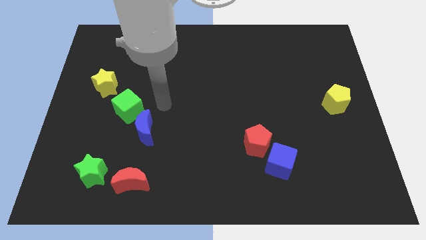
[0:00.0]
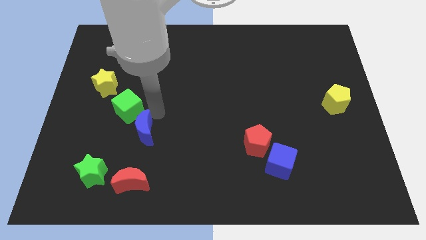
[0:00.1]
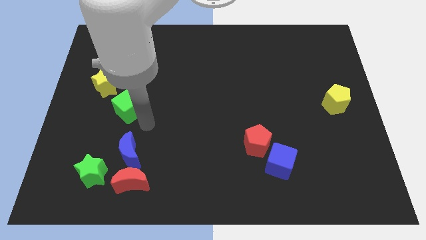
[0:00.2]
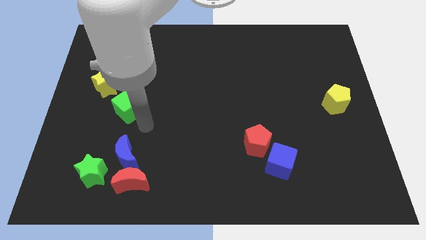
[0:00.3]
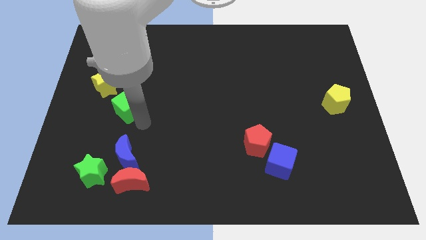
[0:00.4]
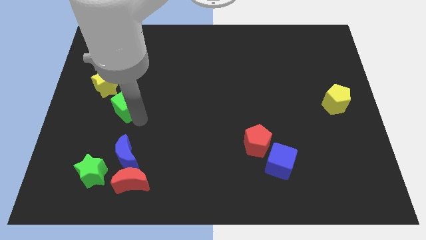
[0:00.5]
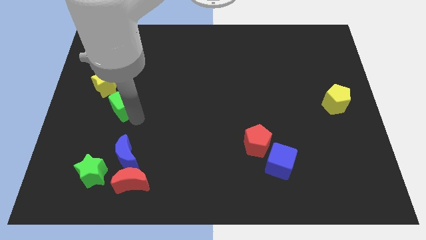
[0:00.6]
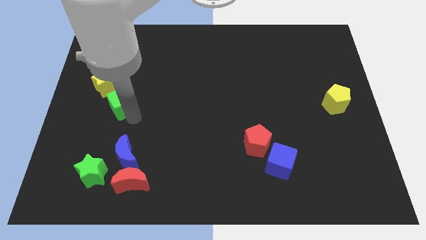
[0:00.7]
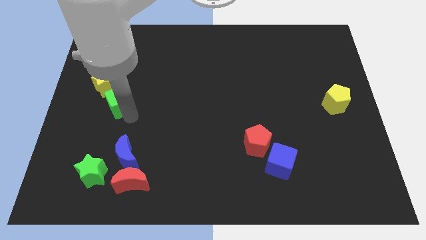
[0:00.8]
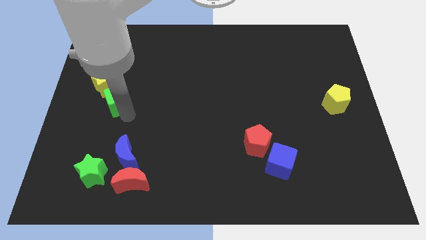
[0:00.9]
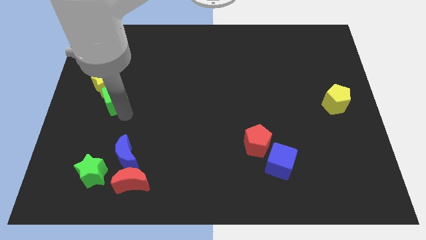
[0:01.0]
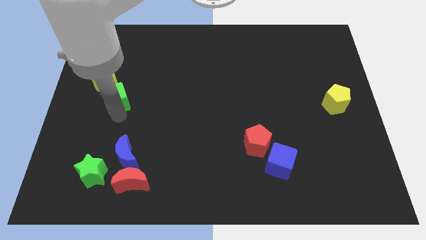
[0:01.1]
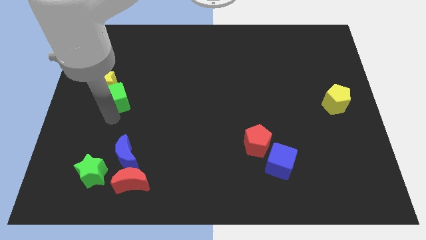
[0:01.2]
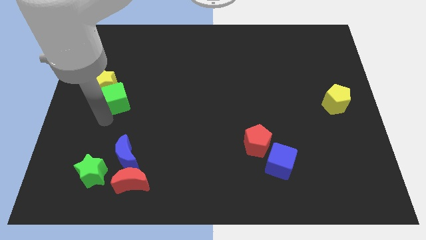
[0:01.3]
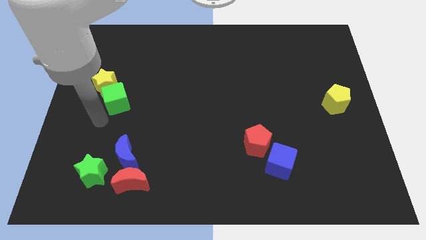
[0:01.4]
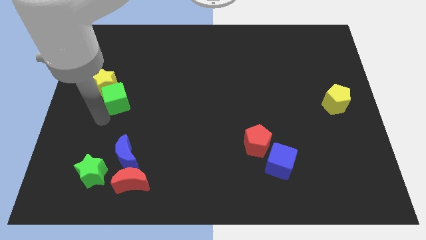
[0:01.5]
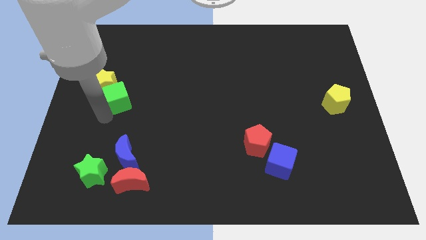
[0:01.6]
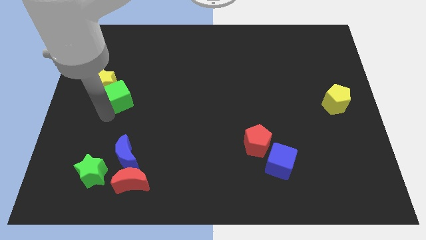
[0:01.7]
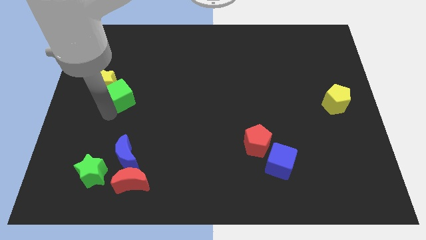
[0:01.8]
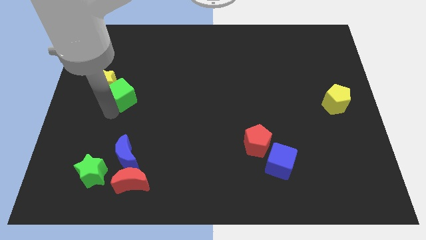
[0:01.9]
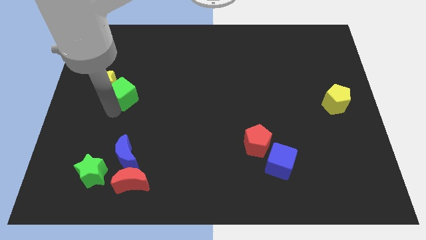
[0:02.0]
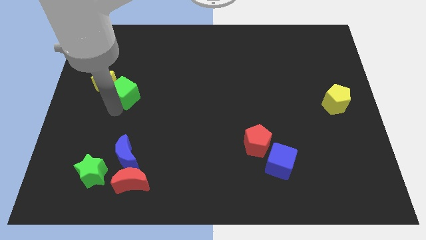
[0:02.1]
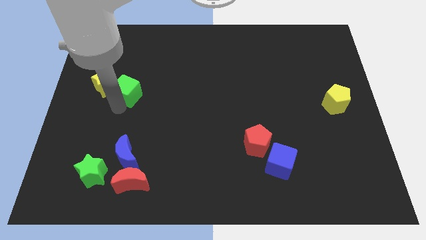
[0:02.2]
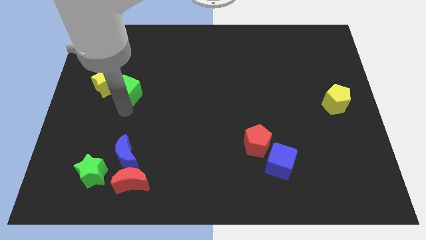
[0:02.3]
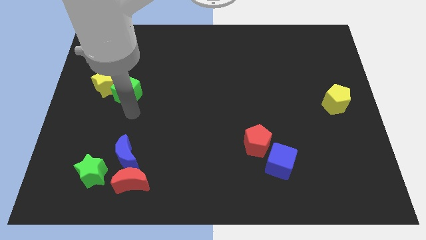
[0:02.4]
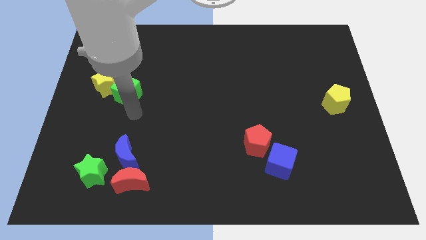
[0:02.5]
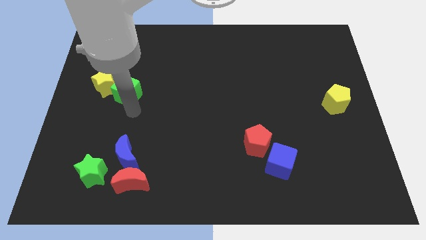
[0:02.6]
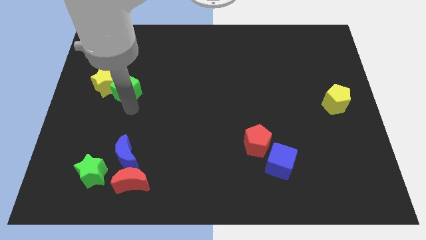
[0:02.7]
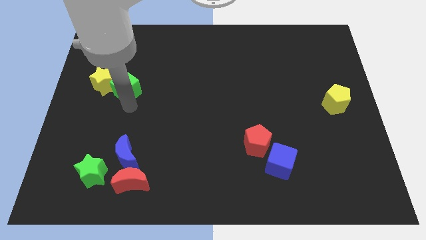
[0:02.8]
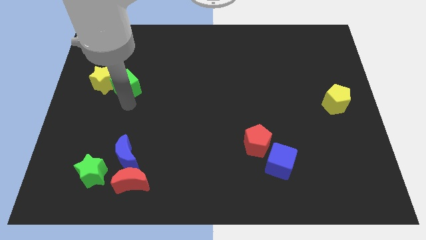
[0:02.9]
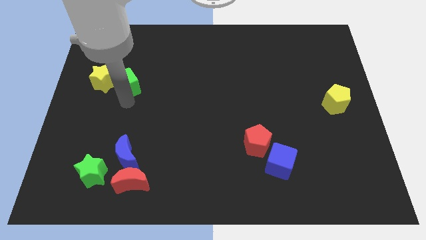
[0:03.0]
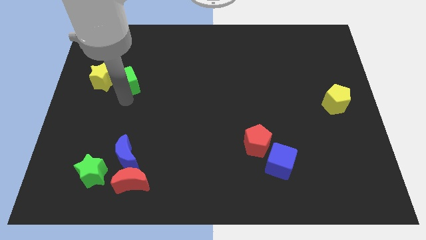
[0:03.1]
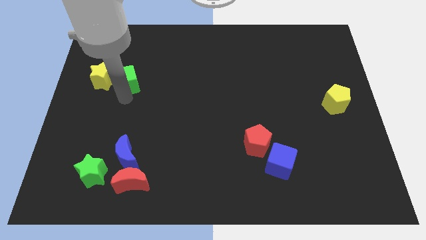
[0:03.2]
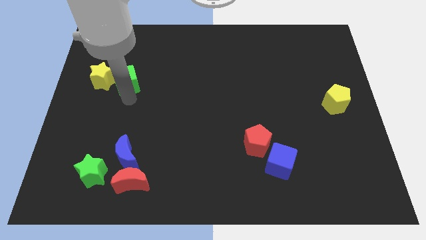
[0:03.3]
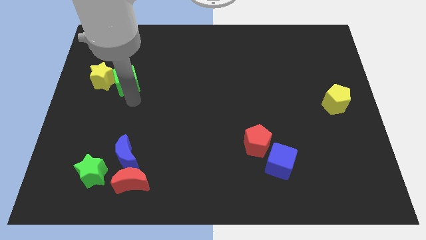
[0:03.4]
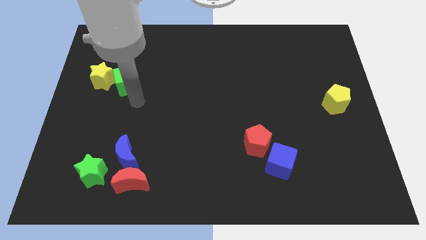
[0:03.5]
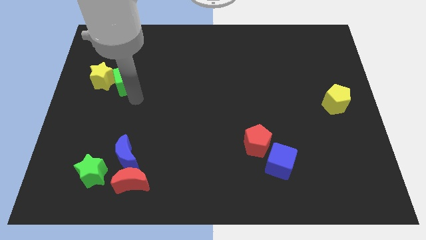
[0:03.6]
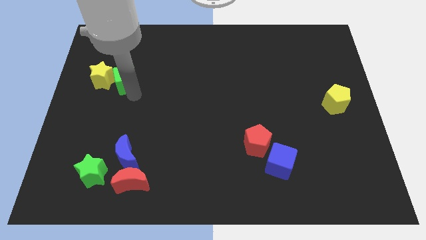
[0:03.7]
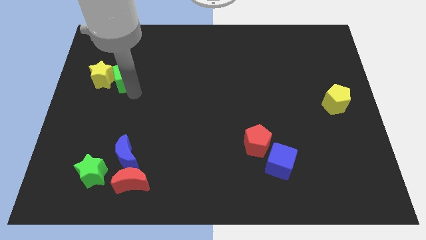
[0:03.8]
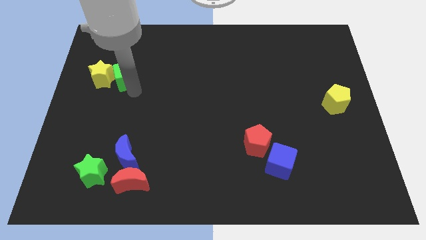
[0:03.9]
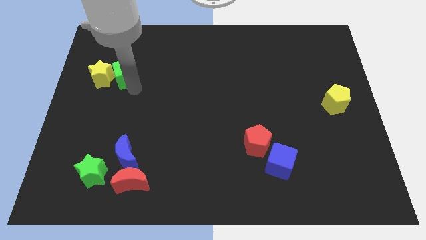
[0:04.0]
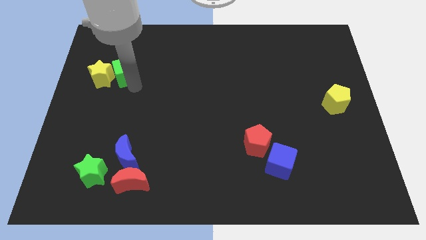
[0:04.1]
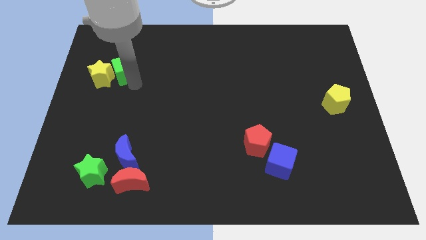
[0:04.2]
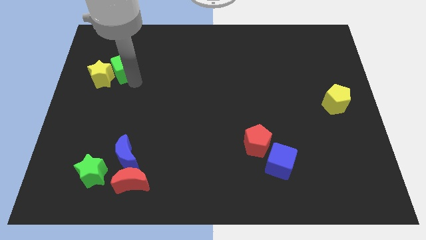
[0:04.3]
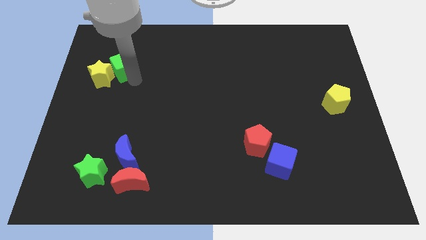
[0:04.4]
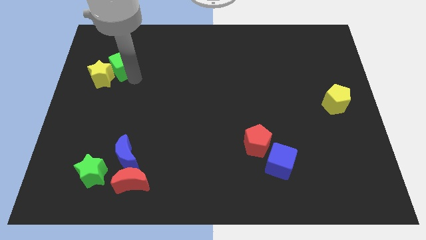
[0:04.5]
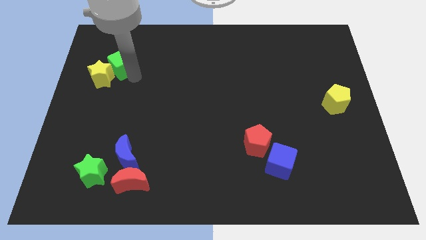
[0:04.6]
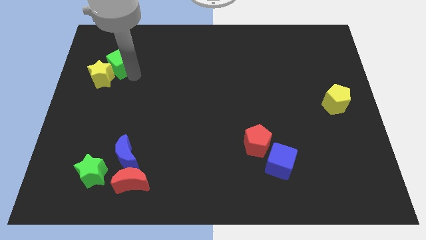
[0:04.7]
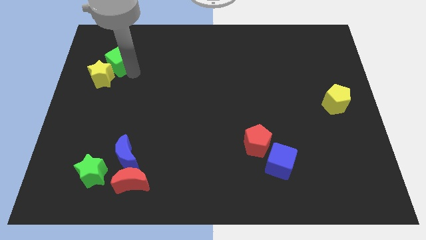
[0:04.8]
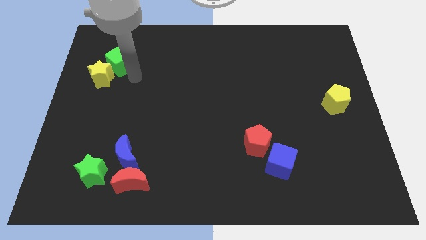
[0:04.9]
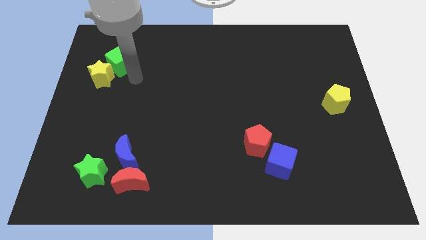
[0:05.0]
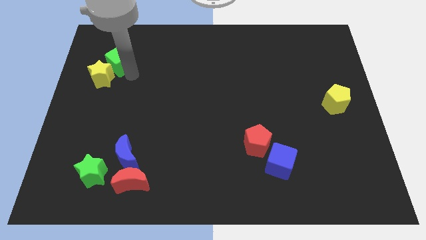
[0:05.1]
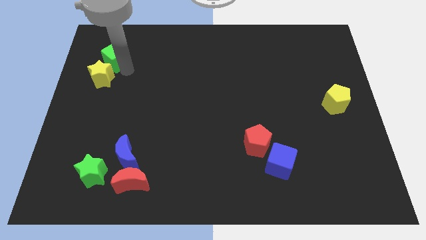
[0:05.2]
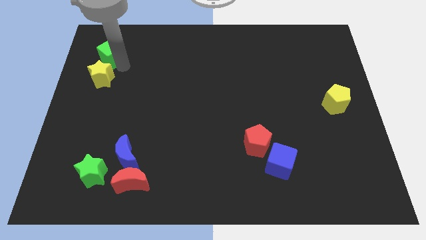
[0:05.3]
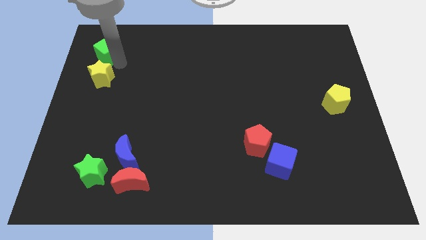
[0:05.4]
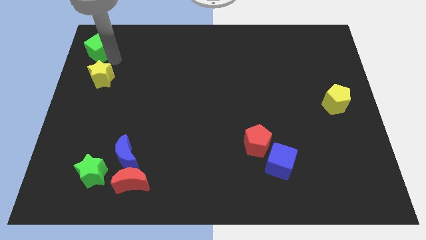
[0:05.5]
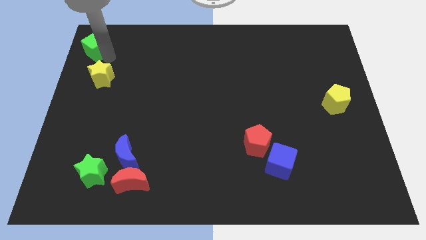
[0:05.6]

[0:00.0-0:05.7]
push the green cube to the top left corner

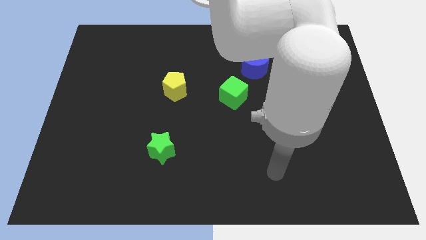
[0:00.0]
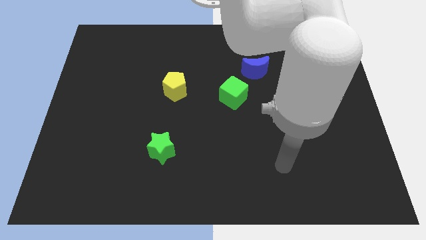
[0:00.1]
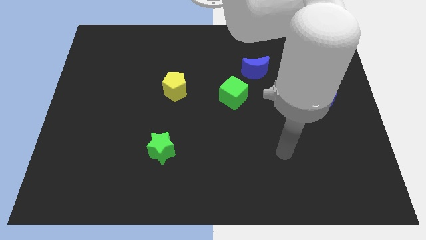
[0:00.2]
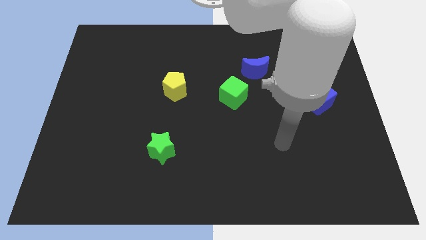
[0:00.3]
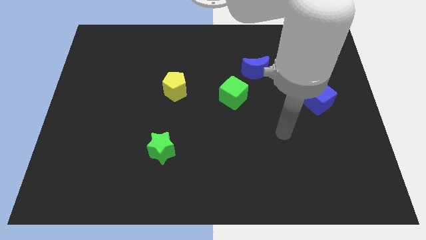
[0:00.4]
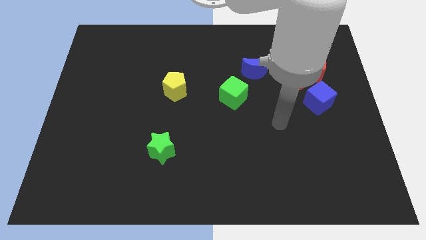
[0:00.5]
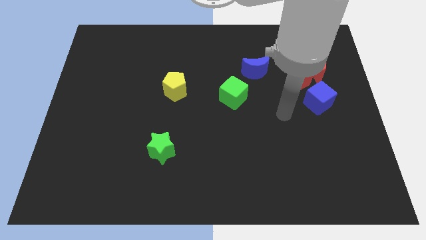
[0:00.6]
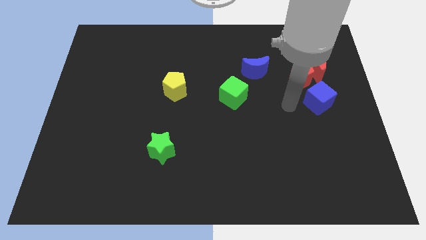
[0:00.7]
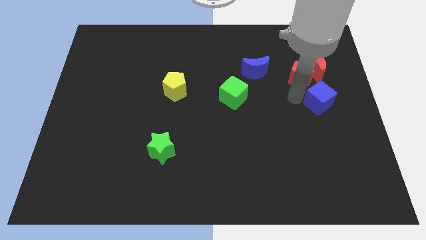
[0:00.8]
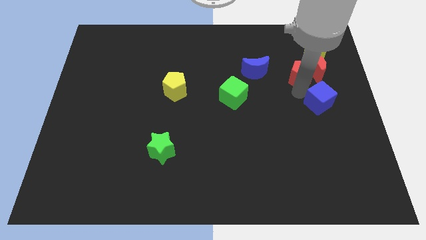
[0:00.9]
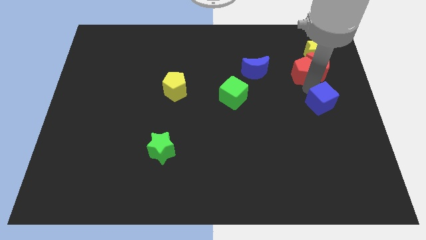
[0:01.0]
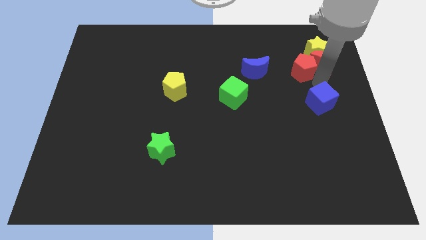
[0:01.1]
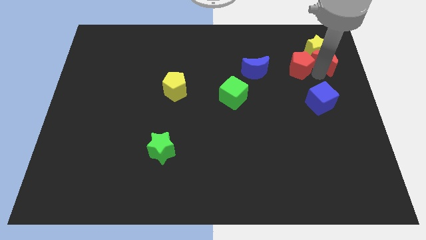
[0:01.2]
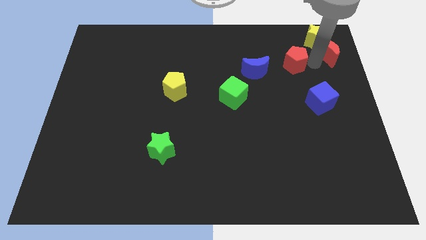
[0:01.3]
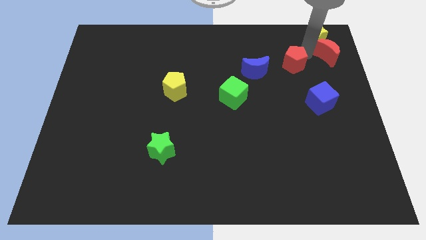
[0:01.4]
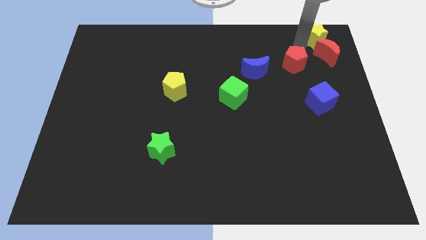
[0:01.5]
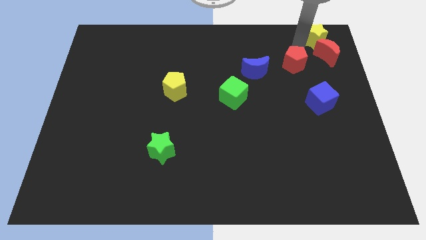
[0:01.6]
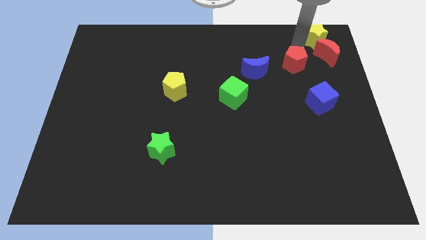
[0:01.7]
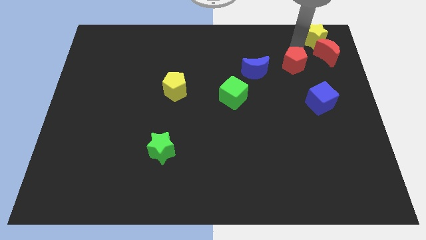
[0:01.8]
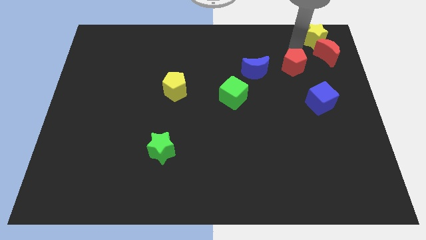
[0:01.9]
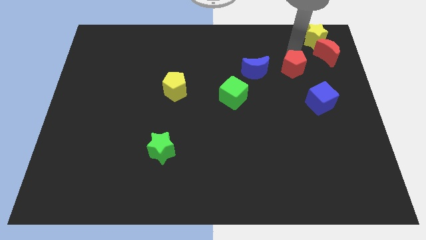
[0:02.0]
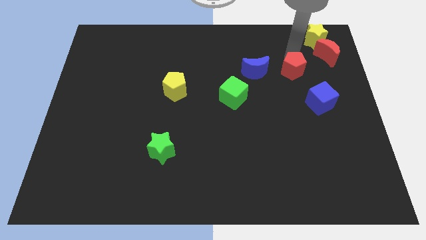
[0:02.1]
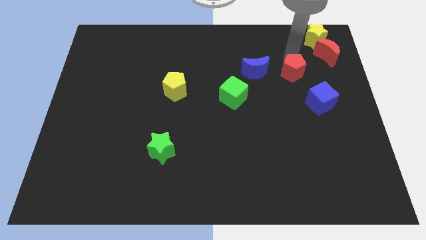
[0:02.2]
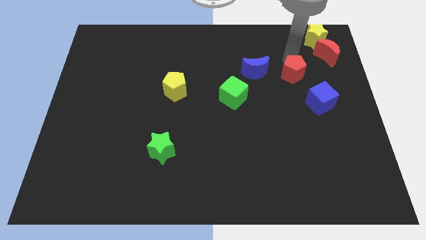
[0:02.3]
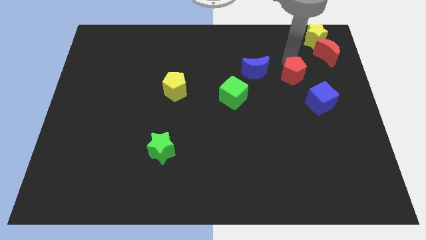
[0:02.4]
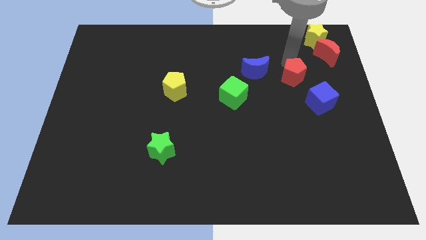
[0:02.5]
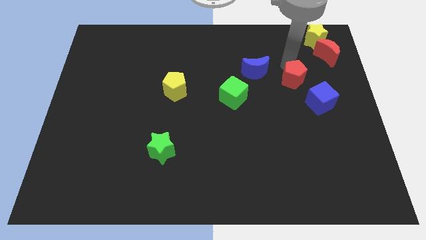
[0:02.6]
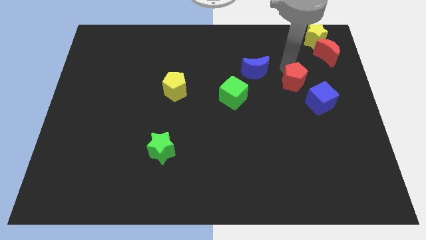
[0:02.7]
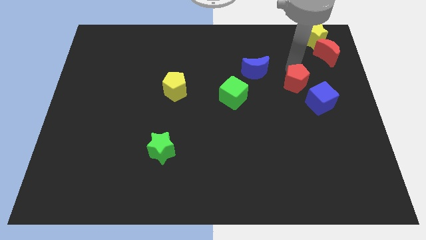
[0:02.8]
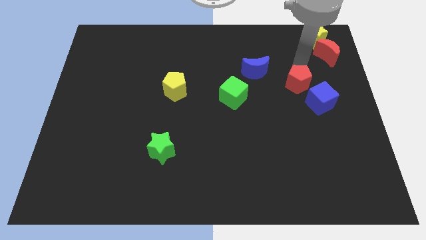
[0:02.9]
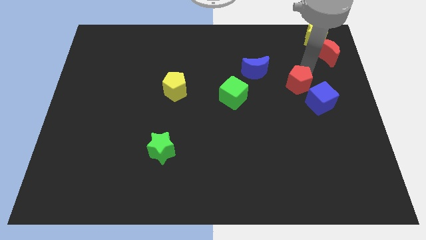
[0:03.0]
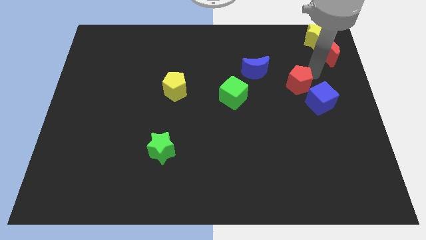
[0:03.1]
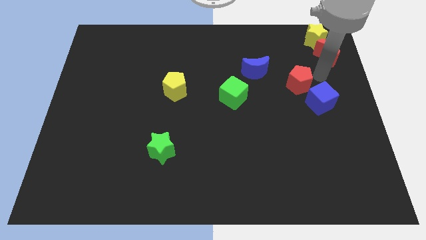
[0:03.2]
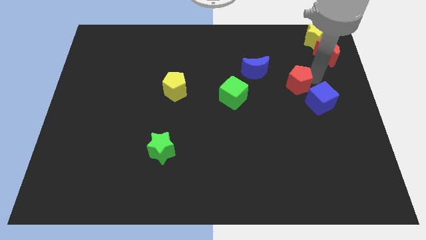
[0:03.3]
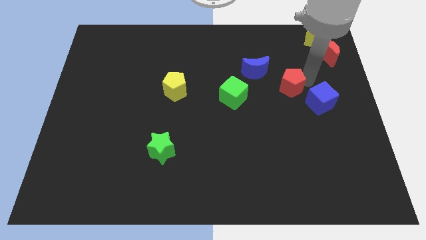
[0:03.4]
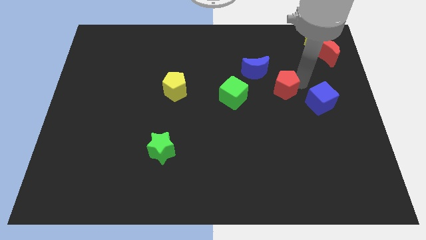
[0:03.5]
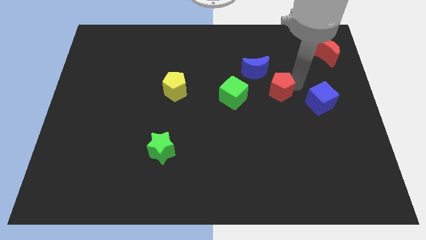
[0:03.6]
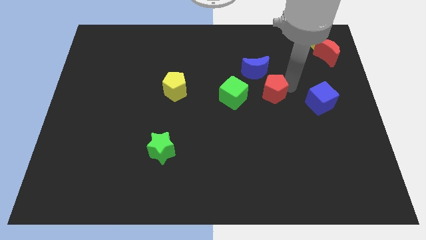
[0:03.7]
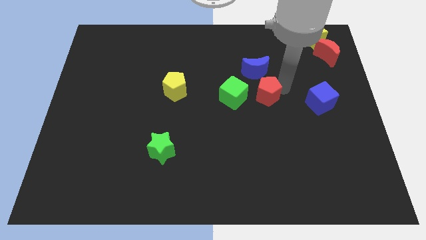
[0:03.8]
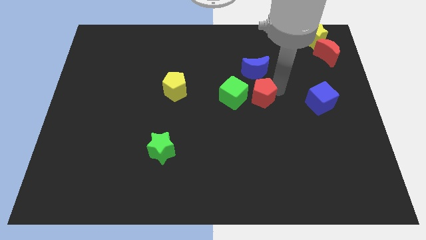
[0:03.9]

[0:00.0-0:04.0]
put the red pentagon to the middle
